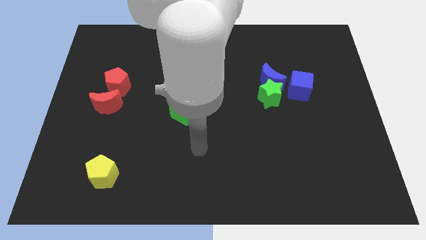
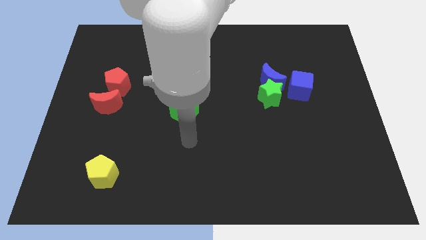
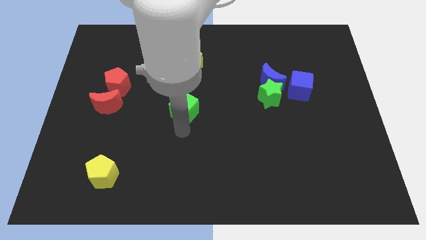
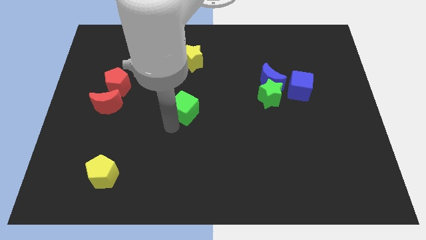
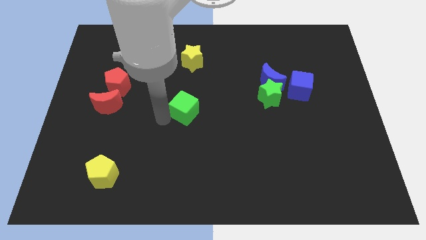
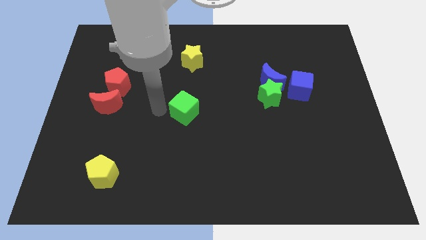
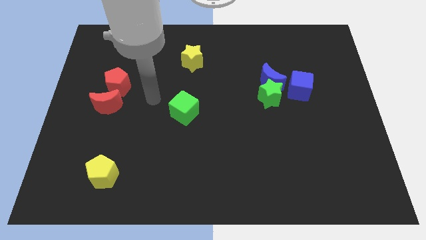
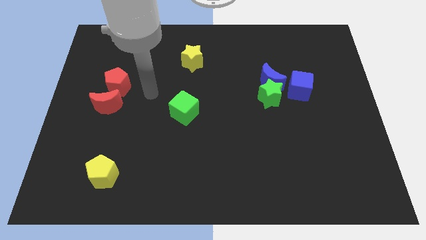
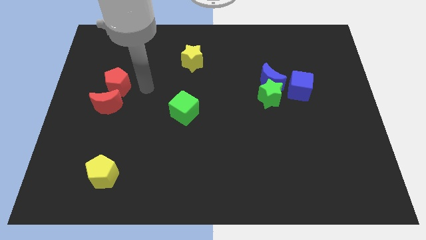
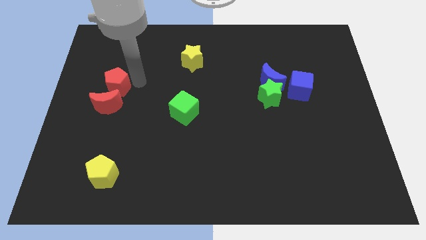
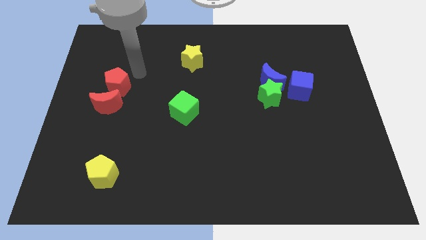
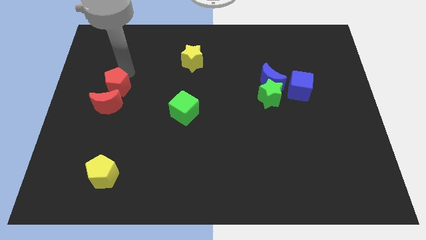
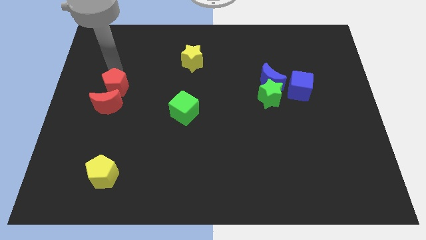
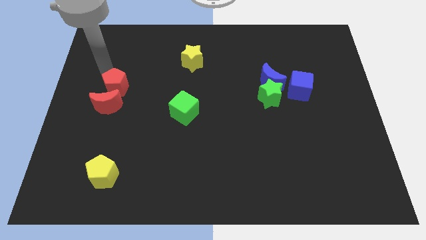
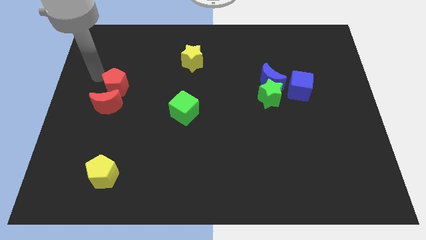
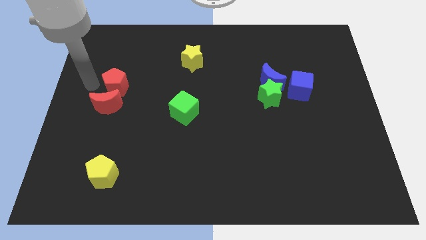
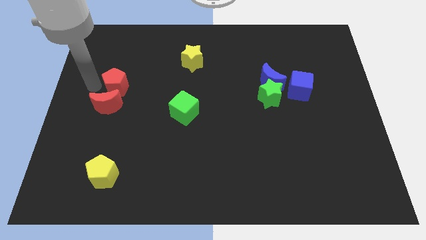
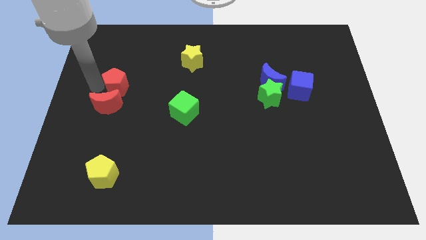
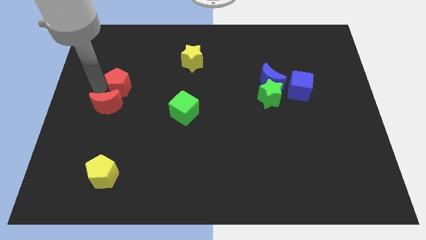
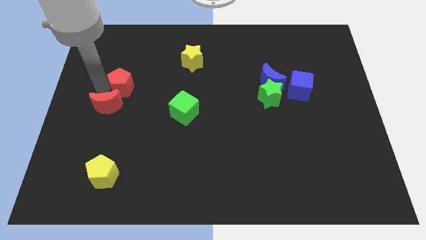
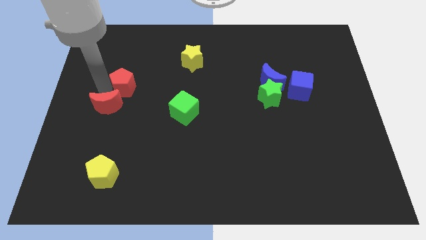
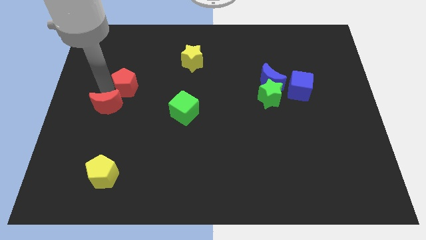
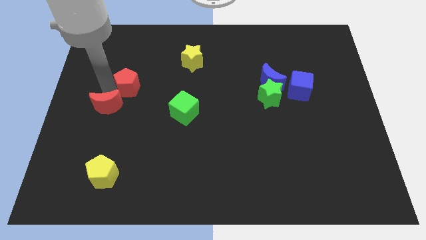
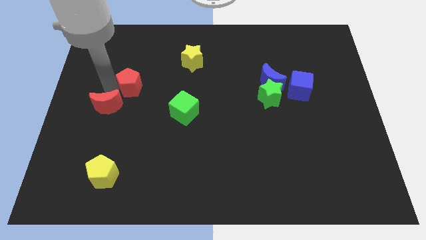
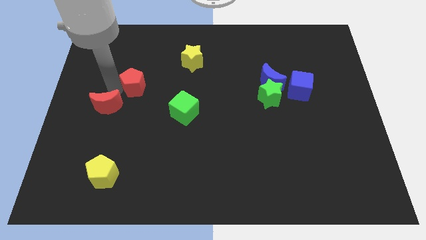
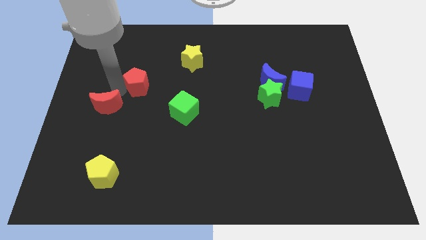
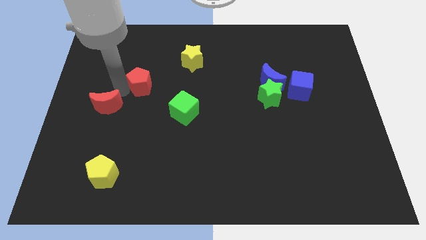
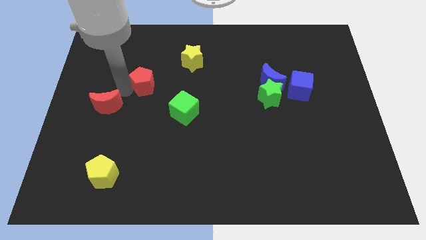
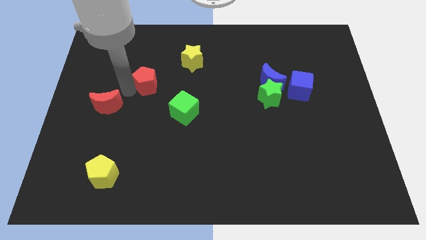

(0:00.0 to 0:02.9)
slide the red pentagon right a little bit

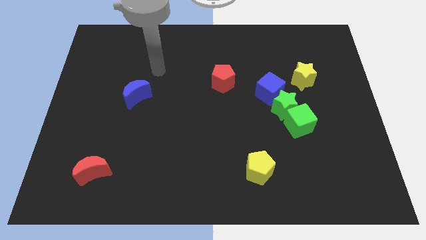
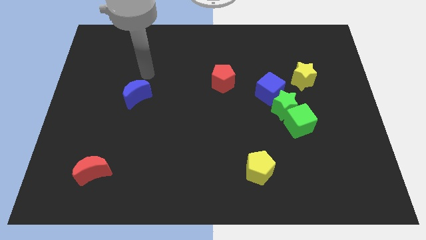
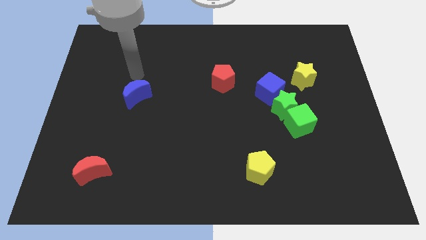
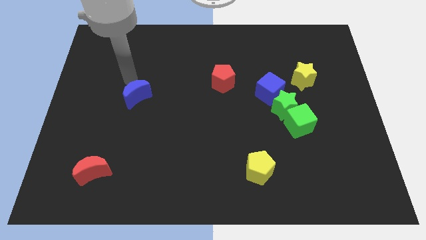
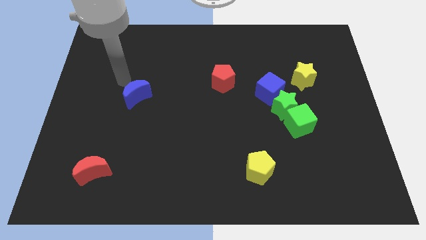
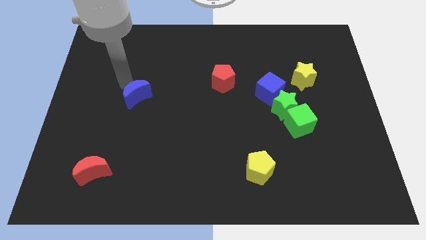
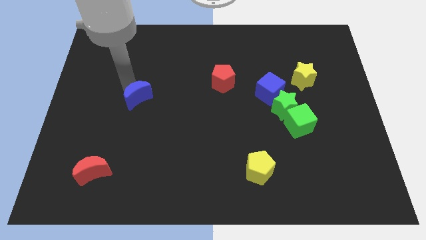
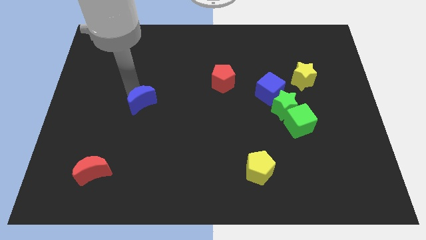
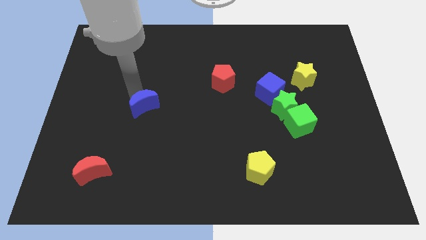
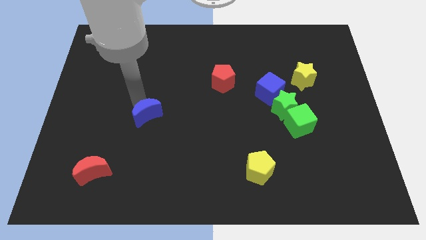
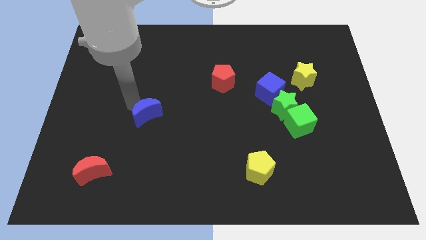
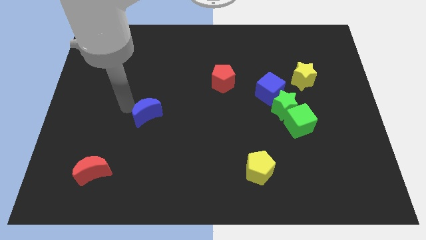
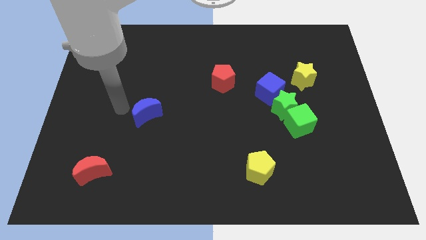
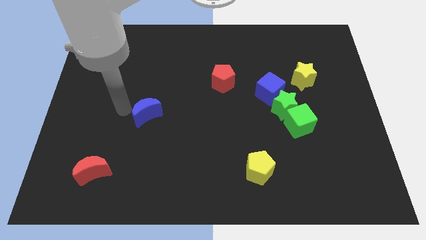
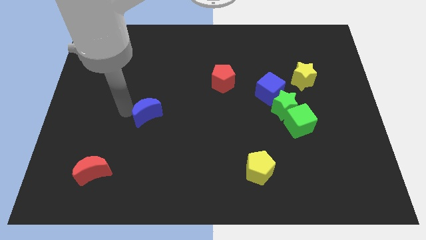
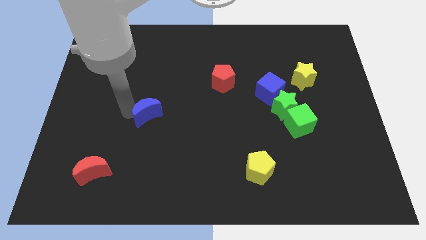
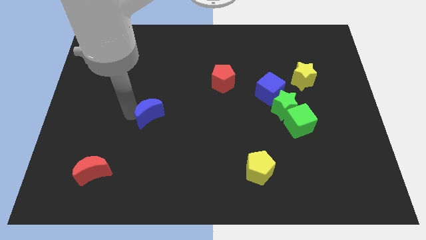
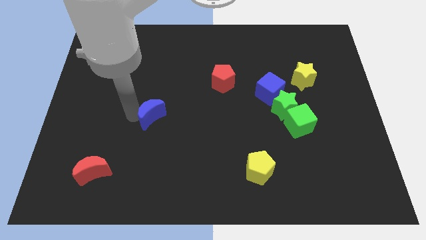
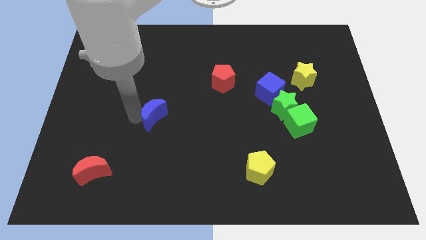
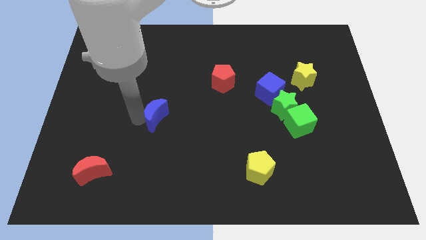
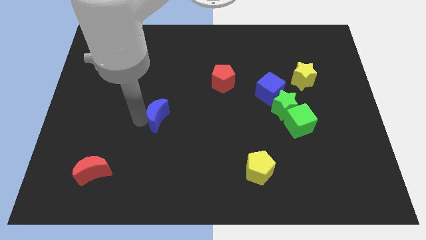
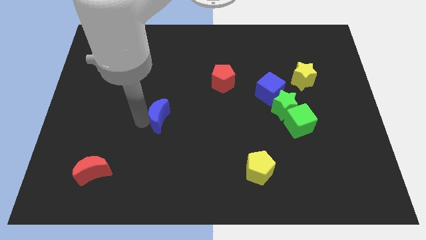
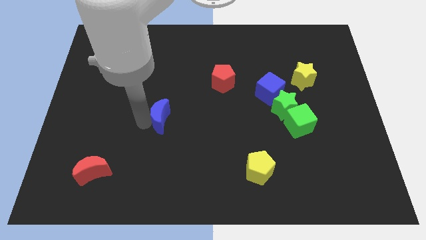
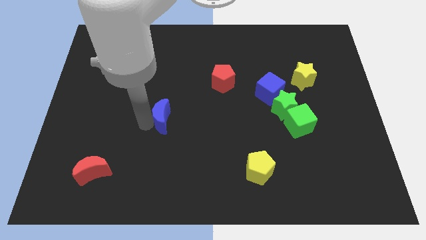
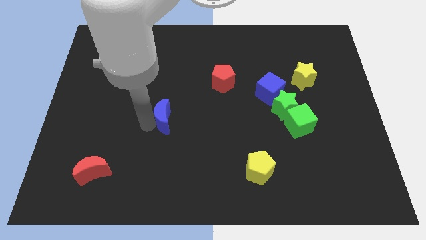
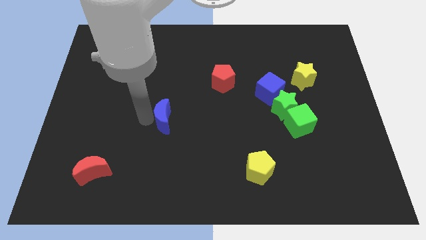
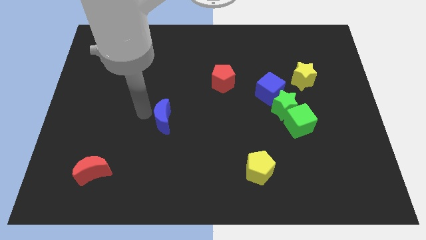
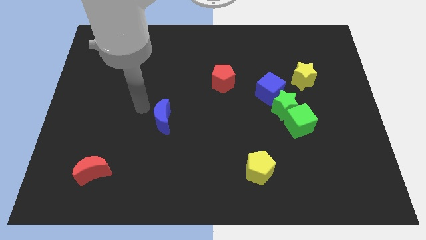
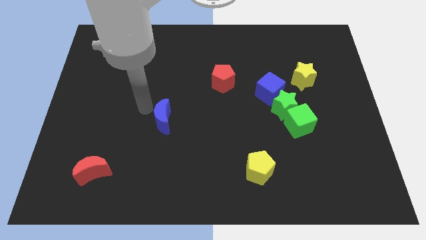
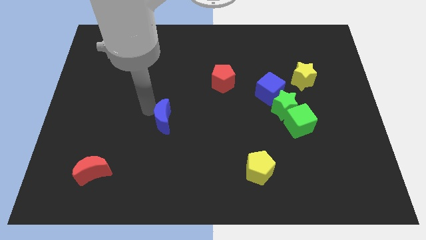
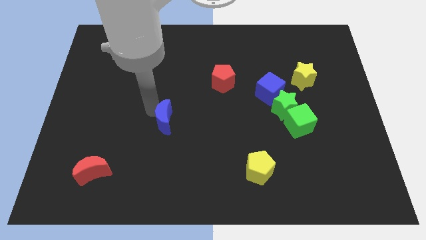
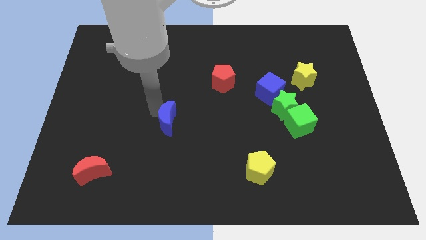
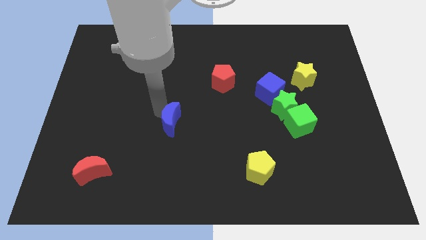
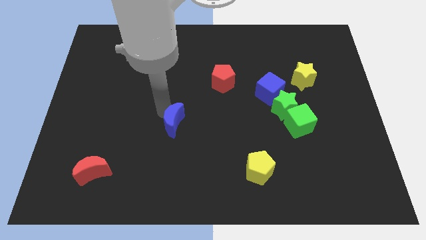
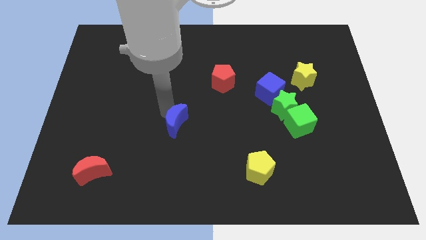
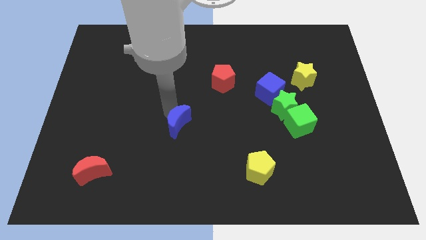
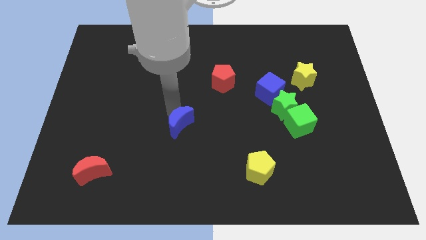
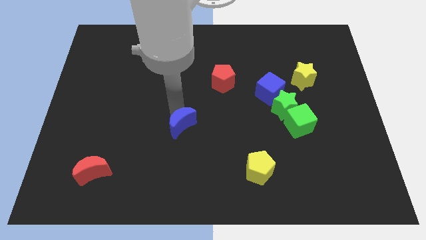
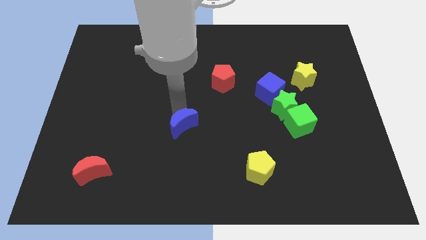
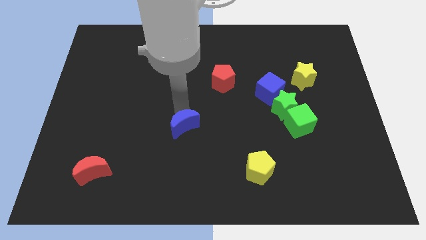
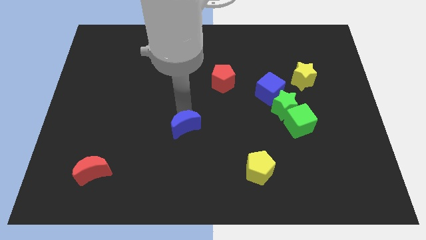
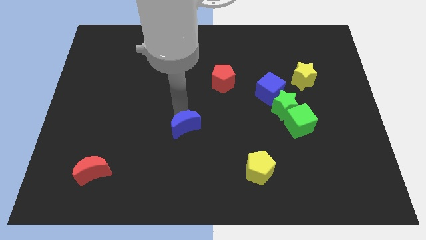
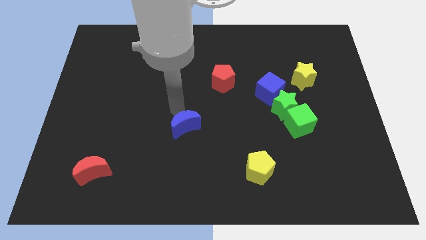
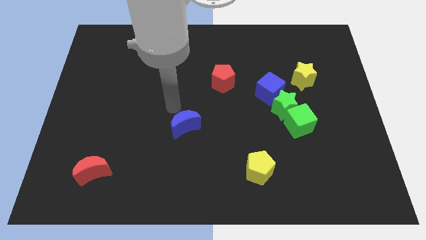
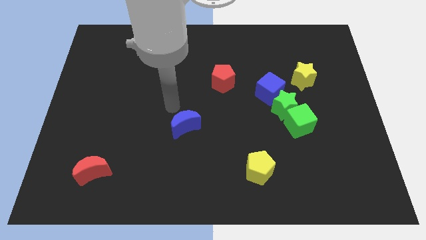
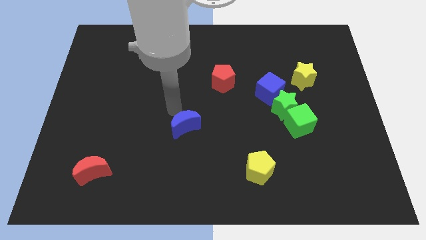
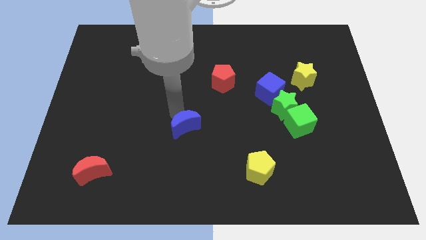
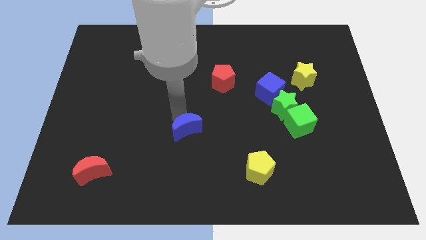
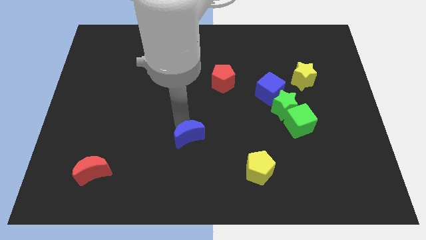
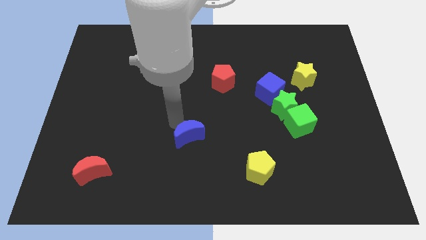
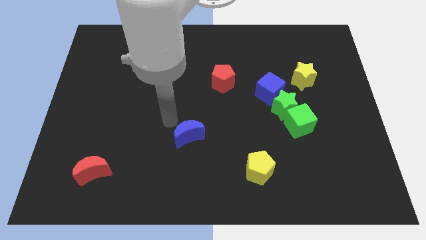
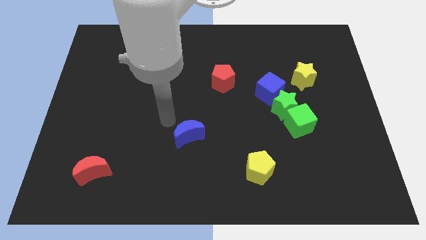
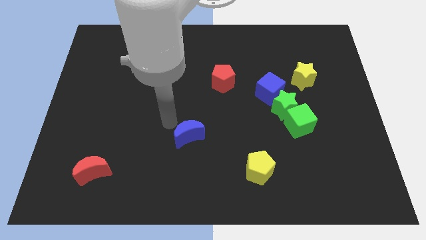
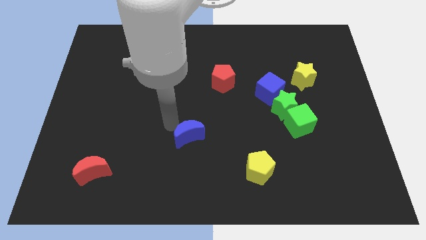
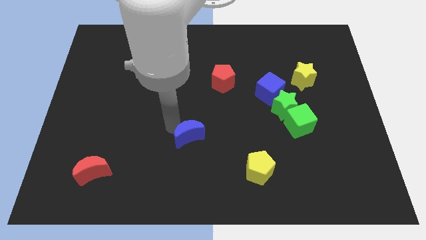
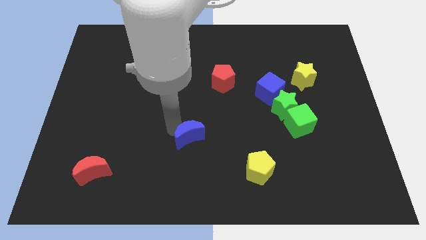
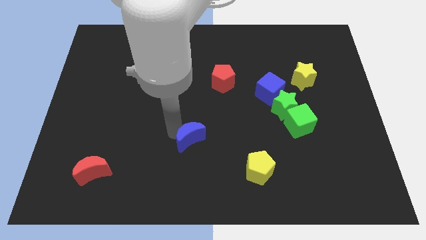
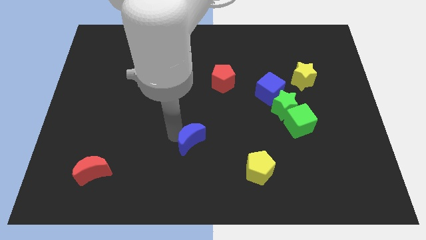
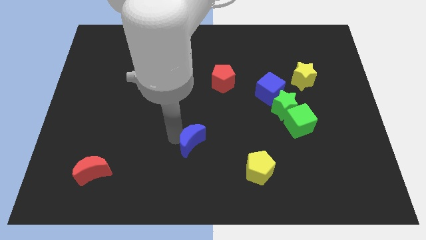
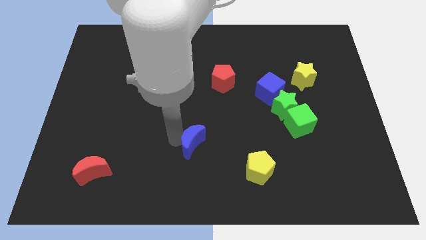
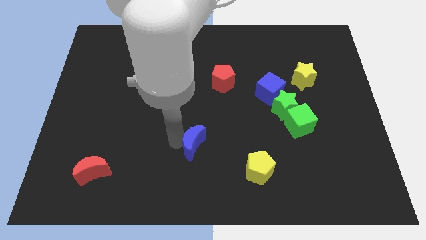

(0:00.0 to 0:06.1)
slide the blue moon diagonally down and right
